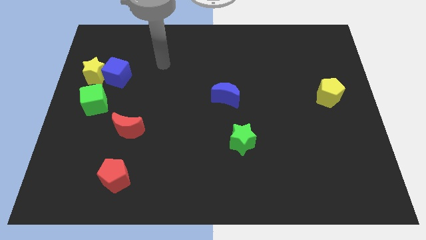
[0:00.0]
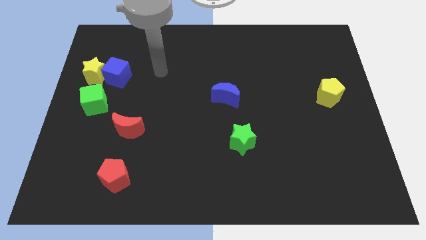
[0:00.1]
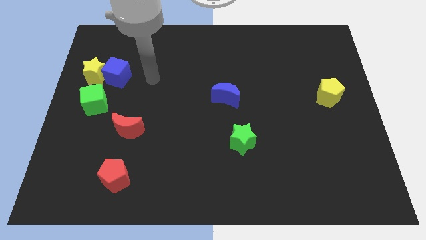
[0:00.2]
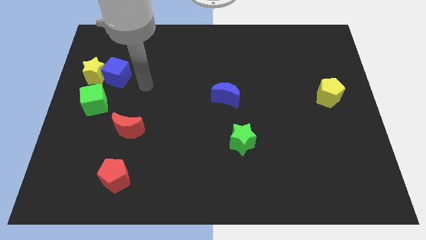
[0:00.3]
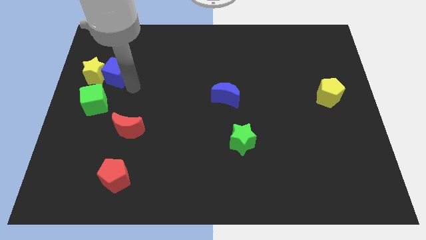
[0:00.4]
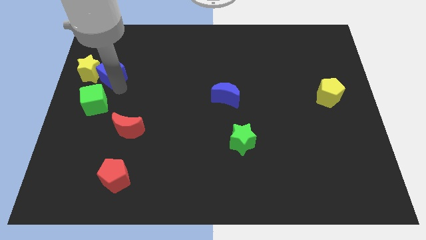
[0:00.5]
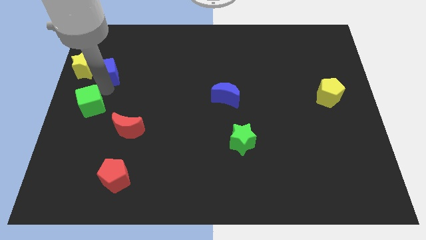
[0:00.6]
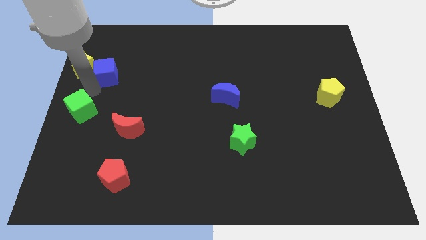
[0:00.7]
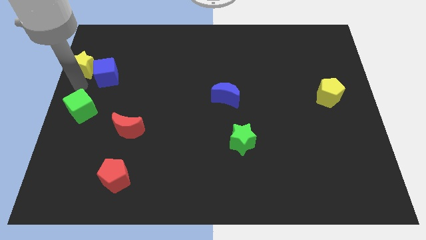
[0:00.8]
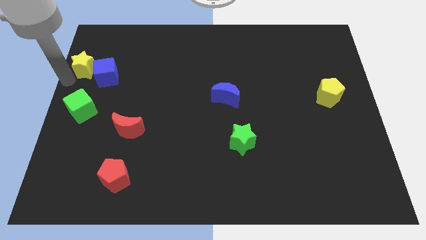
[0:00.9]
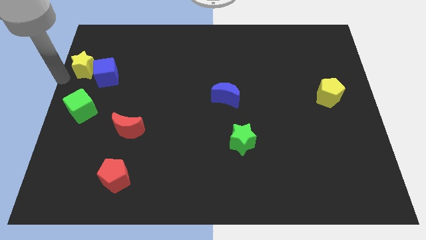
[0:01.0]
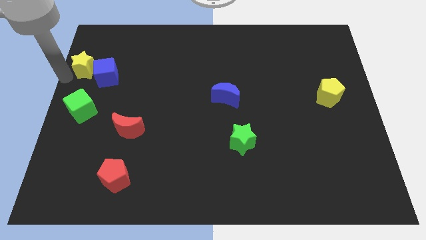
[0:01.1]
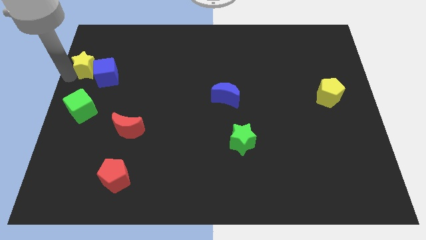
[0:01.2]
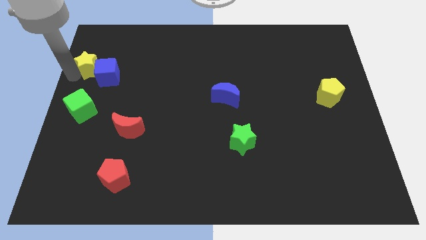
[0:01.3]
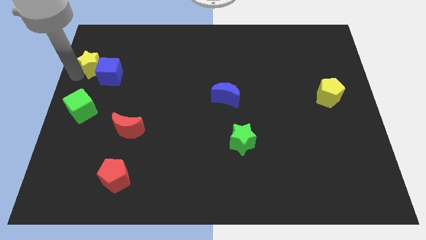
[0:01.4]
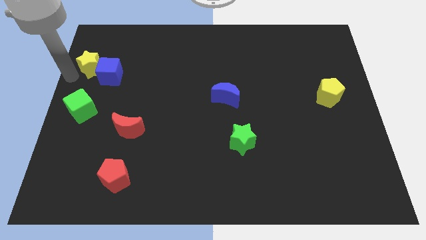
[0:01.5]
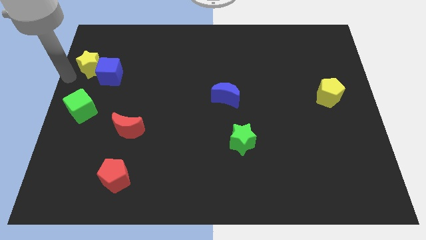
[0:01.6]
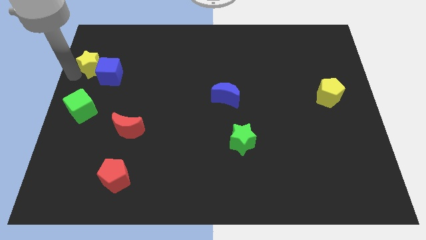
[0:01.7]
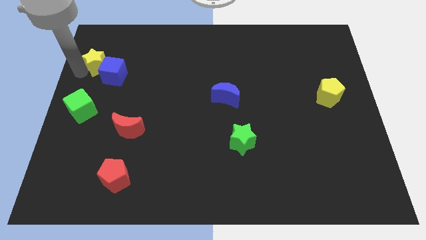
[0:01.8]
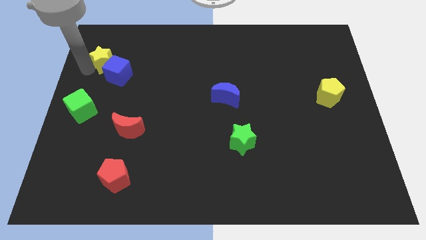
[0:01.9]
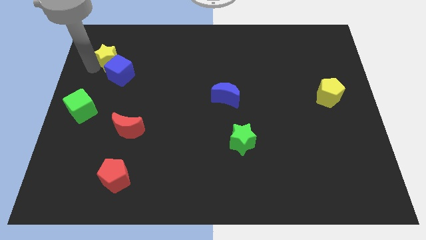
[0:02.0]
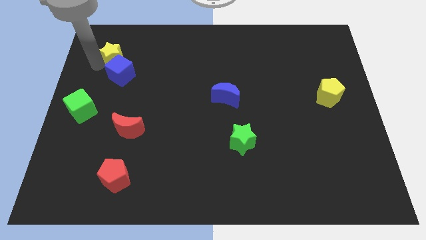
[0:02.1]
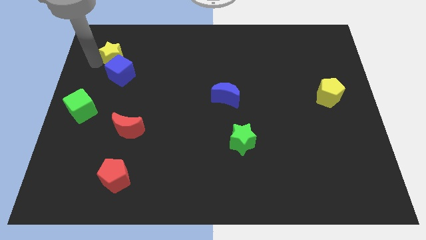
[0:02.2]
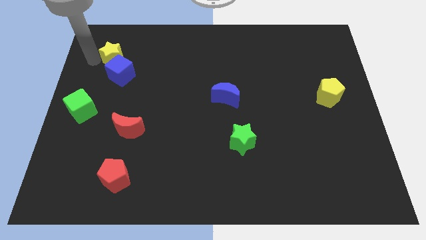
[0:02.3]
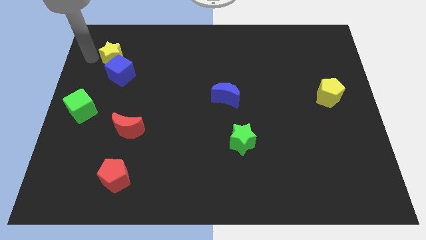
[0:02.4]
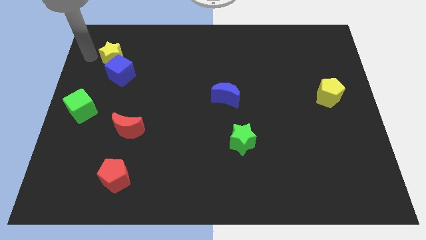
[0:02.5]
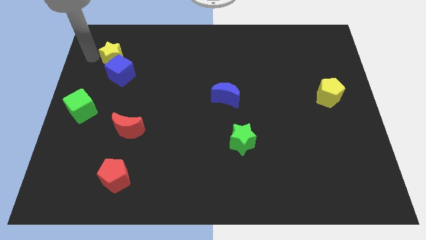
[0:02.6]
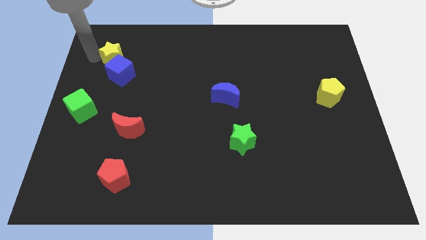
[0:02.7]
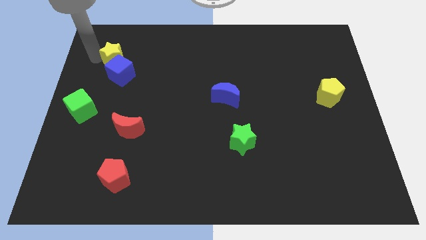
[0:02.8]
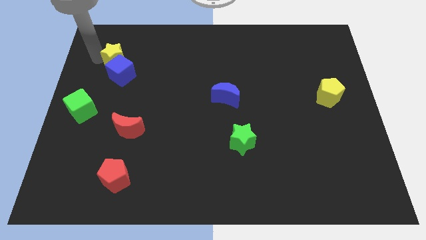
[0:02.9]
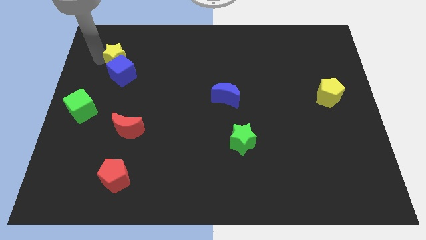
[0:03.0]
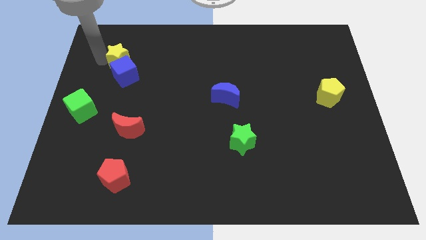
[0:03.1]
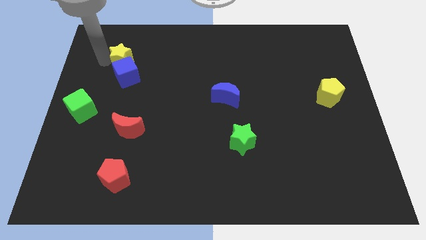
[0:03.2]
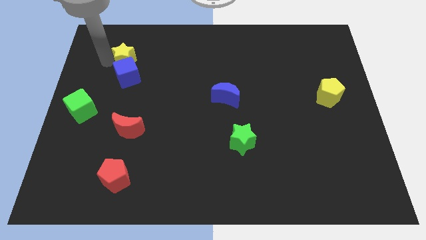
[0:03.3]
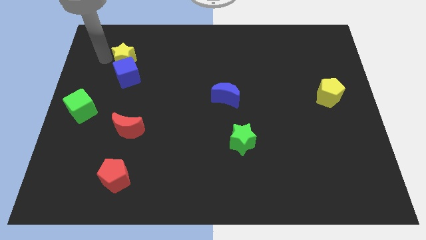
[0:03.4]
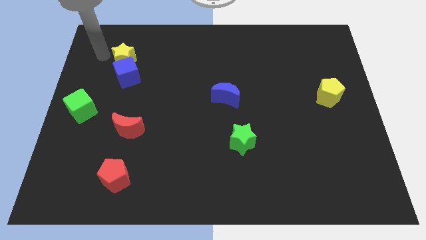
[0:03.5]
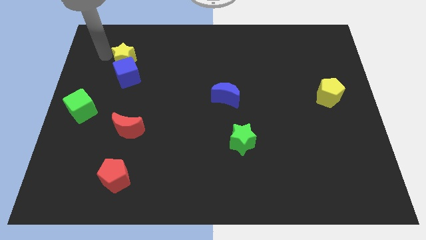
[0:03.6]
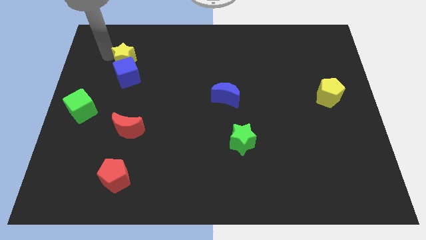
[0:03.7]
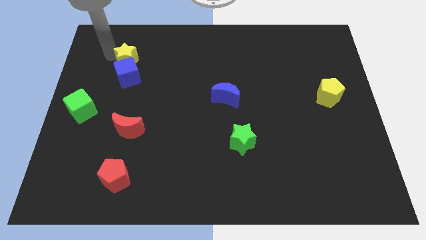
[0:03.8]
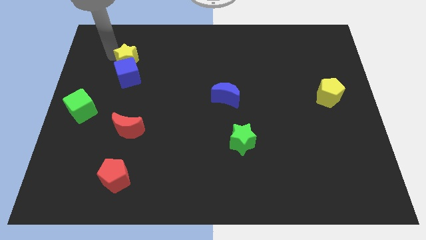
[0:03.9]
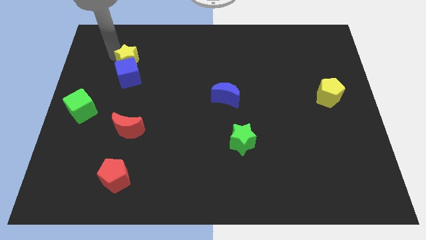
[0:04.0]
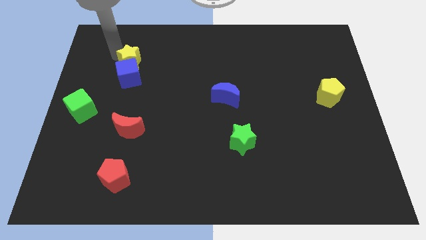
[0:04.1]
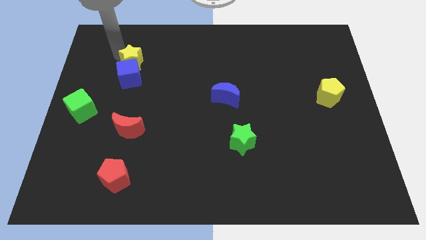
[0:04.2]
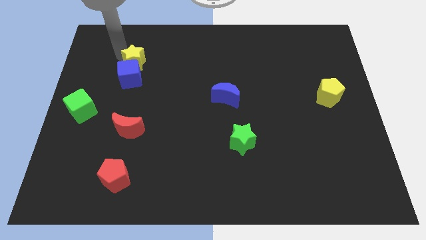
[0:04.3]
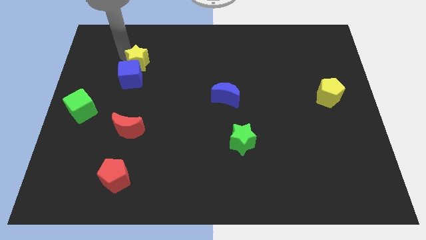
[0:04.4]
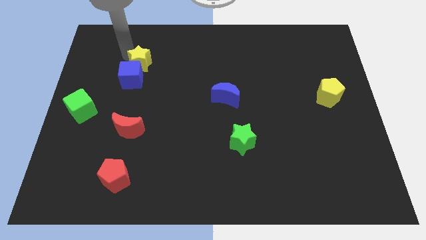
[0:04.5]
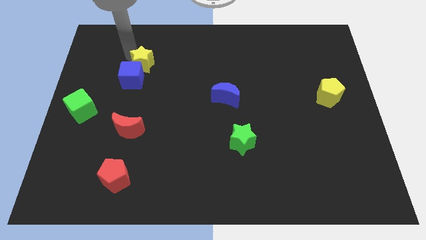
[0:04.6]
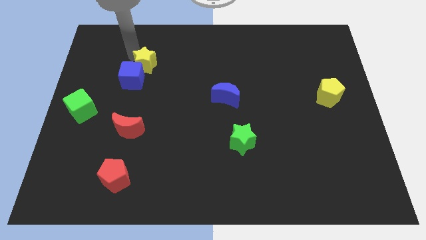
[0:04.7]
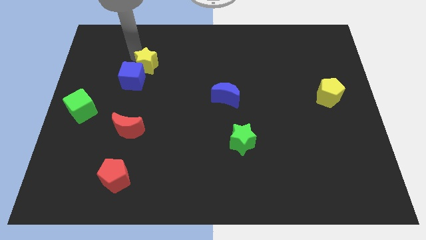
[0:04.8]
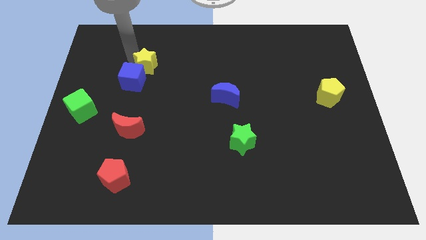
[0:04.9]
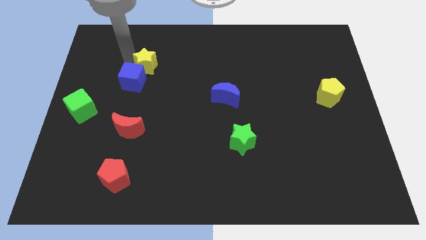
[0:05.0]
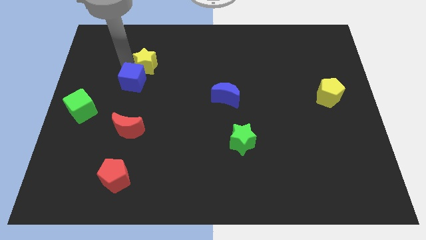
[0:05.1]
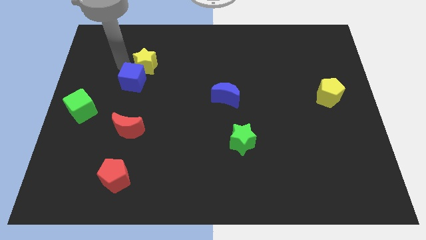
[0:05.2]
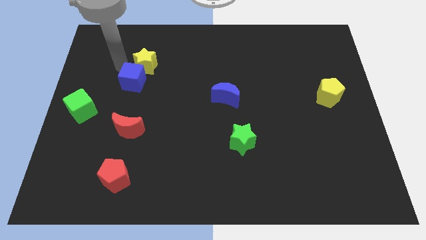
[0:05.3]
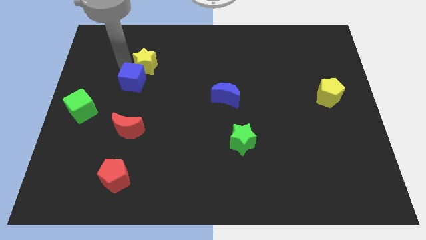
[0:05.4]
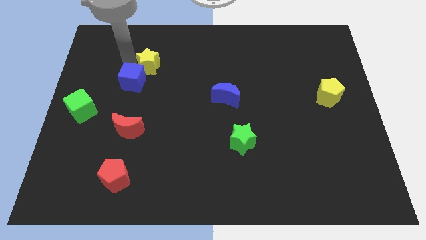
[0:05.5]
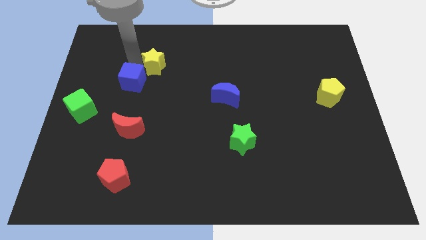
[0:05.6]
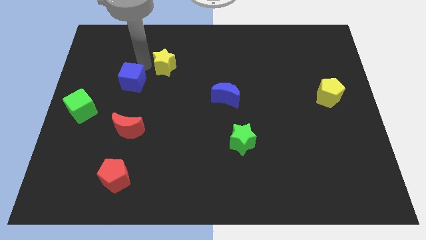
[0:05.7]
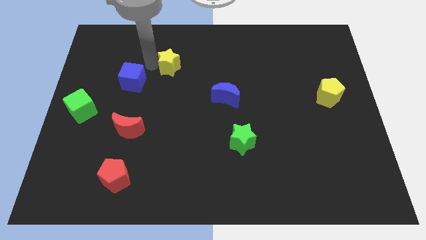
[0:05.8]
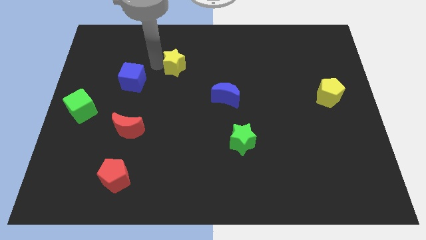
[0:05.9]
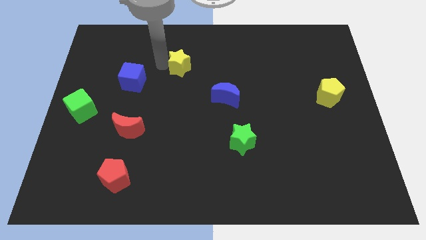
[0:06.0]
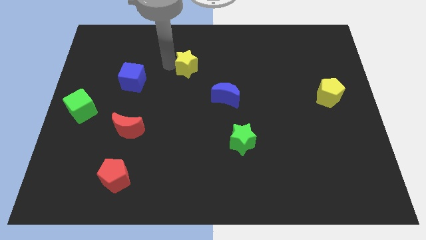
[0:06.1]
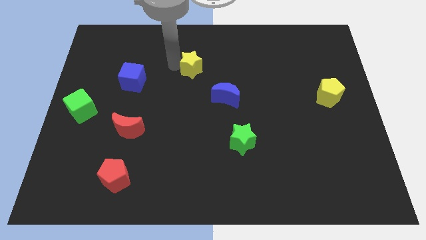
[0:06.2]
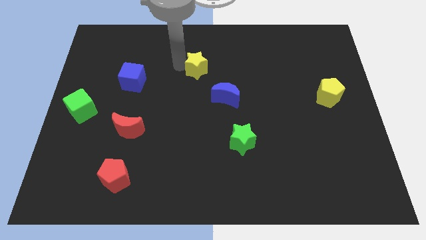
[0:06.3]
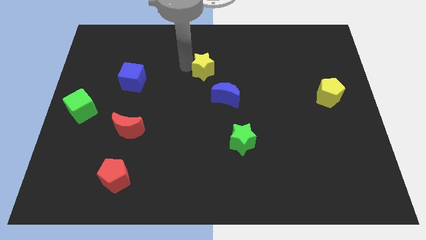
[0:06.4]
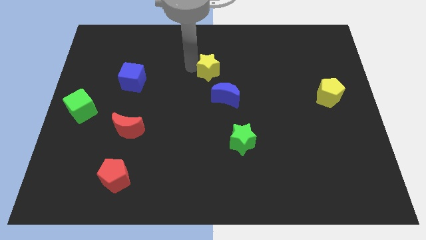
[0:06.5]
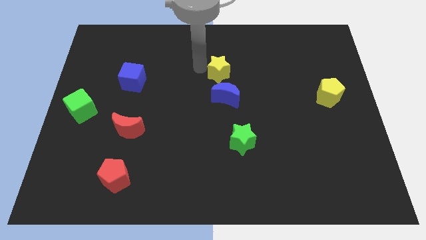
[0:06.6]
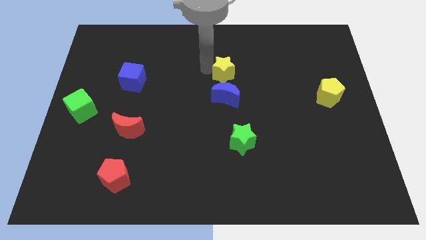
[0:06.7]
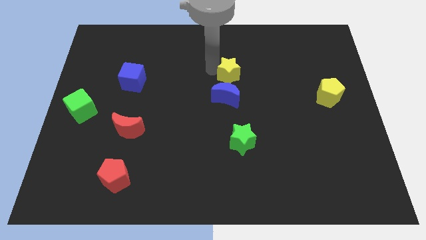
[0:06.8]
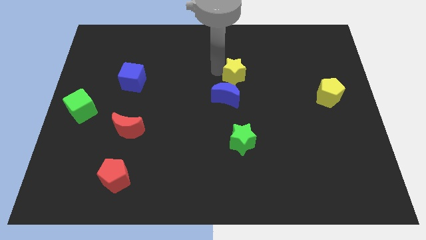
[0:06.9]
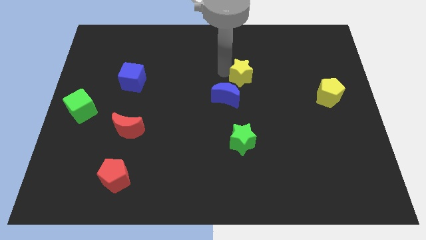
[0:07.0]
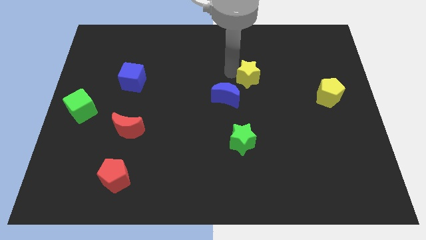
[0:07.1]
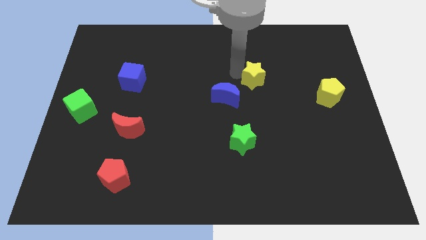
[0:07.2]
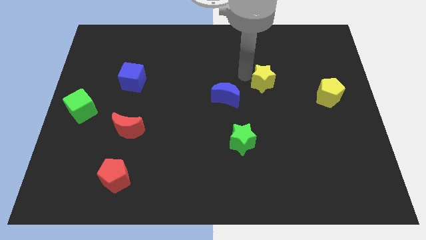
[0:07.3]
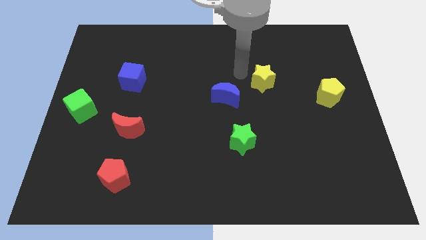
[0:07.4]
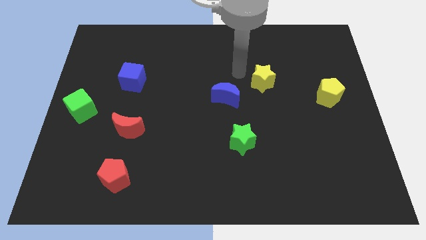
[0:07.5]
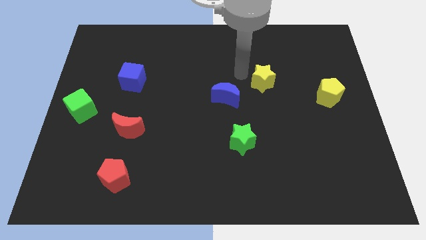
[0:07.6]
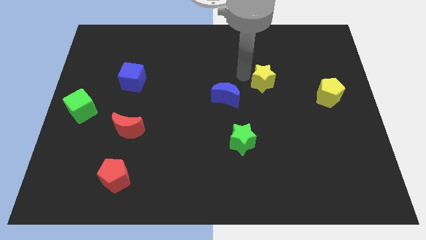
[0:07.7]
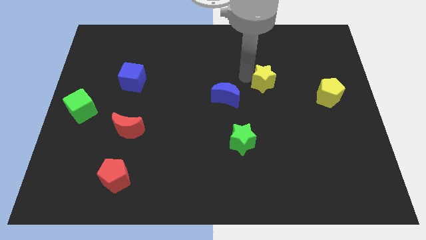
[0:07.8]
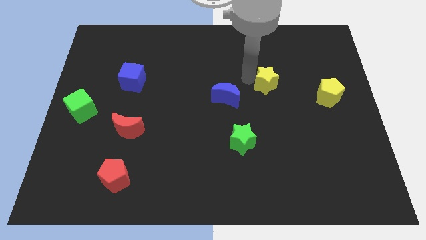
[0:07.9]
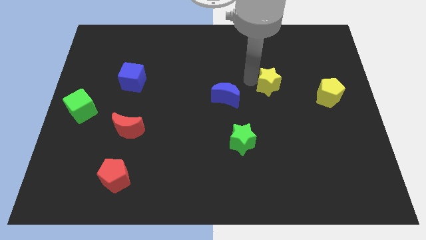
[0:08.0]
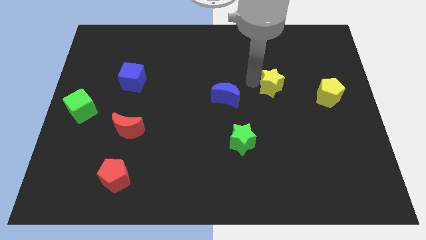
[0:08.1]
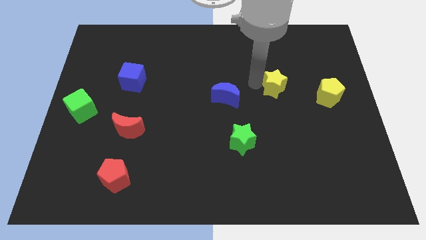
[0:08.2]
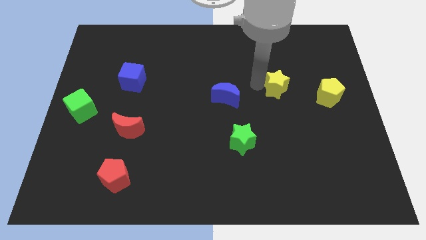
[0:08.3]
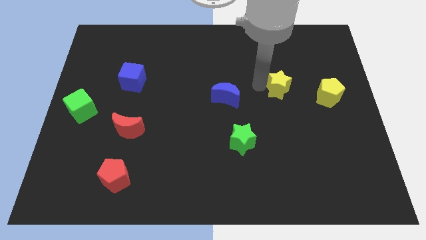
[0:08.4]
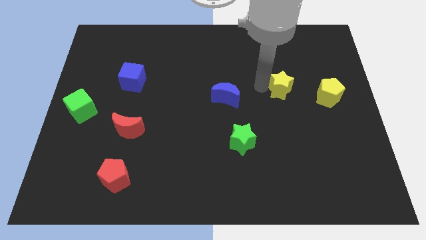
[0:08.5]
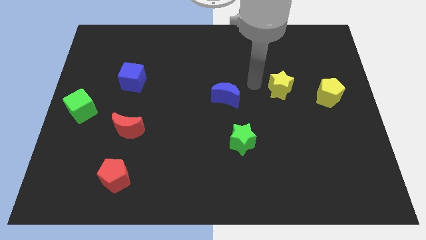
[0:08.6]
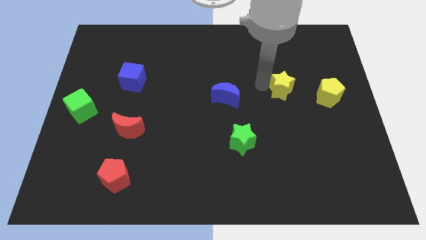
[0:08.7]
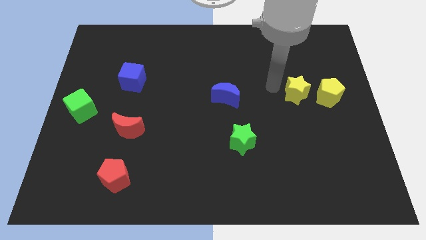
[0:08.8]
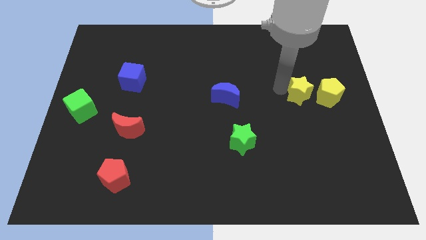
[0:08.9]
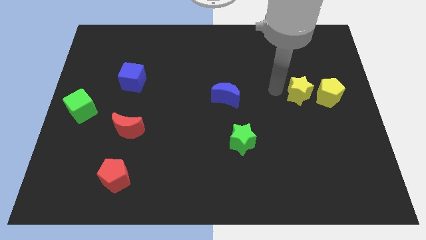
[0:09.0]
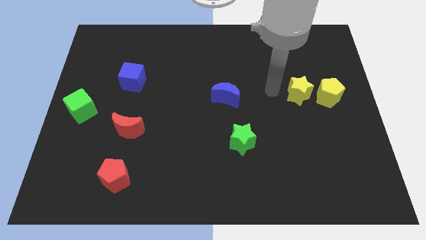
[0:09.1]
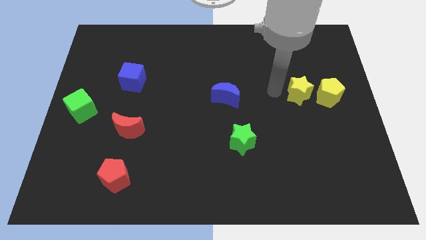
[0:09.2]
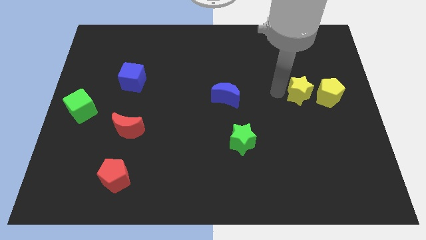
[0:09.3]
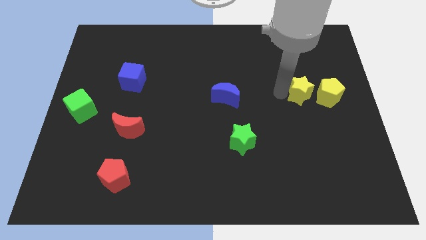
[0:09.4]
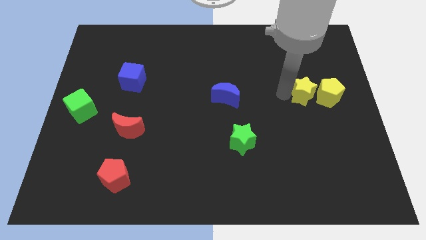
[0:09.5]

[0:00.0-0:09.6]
put the yellow star close to the yellow pentagon
